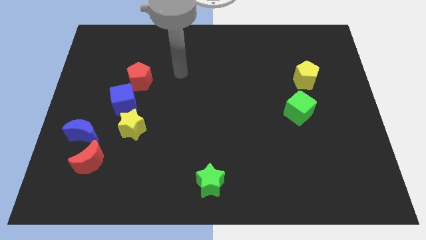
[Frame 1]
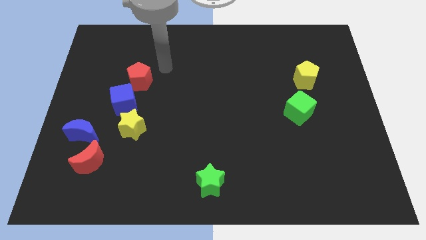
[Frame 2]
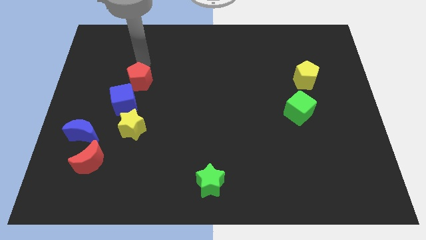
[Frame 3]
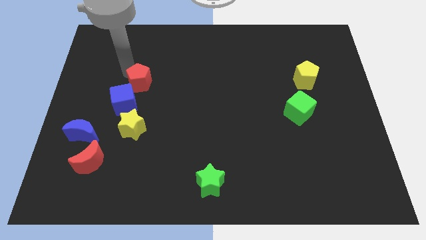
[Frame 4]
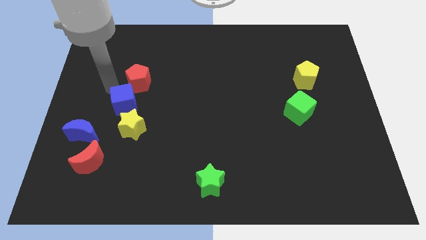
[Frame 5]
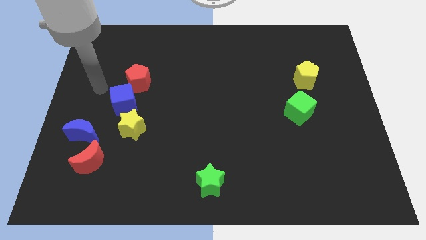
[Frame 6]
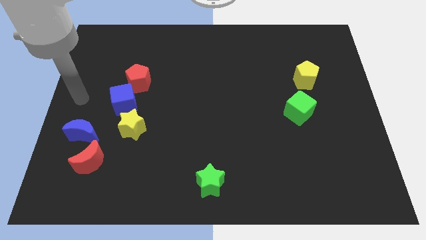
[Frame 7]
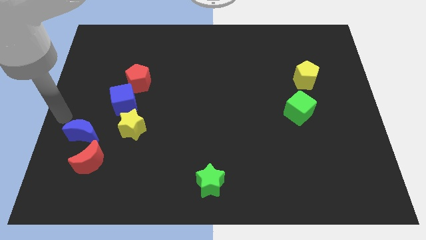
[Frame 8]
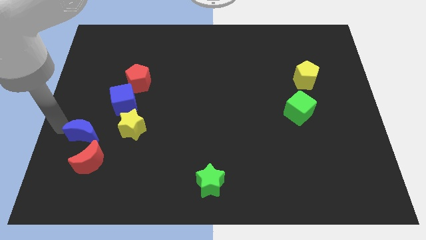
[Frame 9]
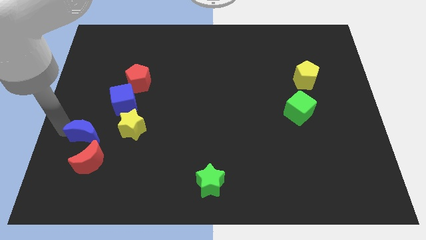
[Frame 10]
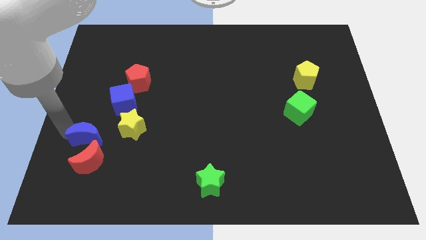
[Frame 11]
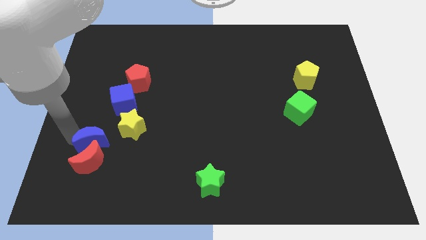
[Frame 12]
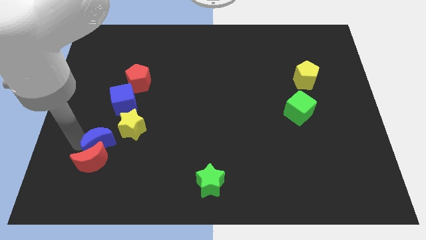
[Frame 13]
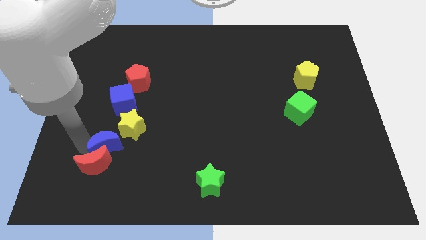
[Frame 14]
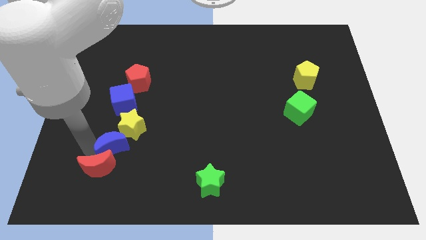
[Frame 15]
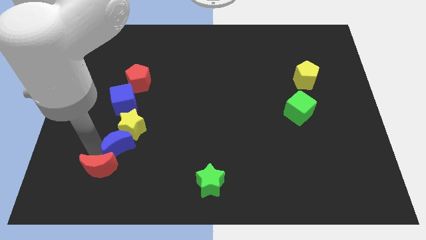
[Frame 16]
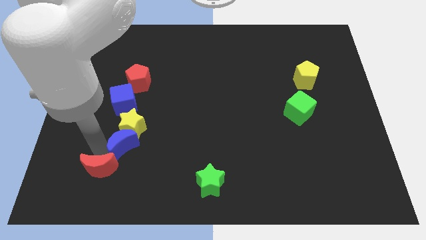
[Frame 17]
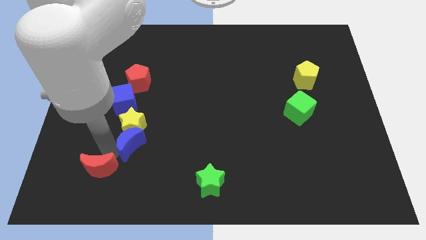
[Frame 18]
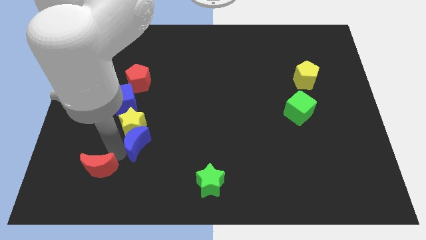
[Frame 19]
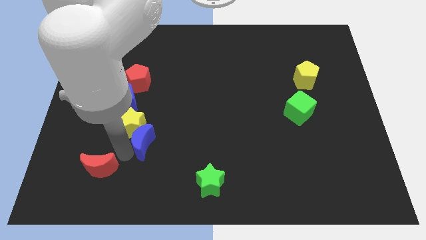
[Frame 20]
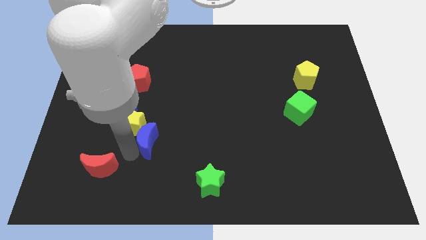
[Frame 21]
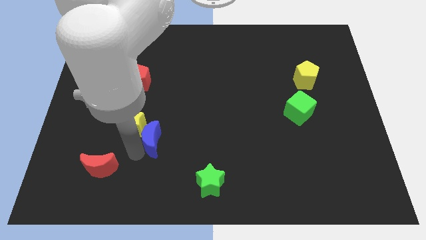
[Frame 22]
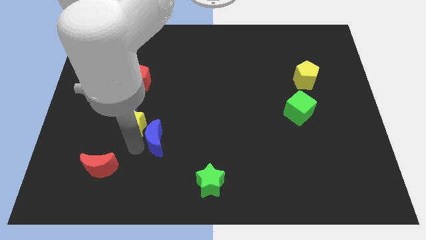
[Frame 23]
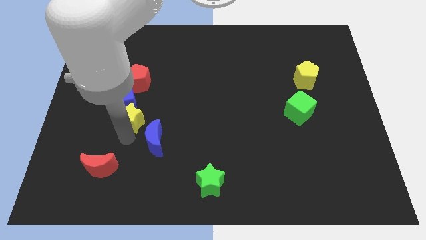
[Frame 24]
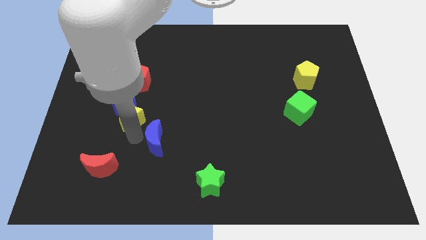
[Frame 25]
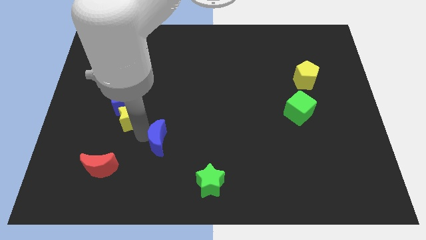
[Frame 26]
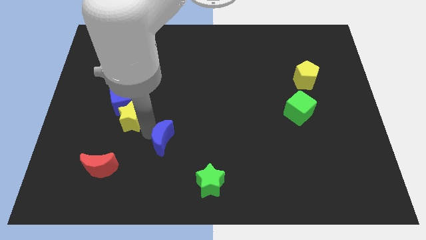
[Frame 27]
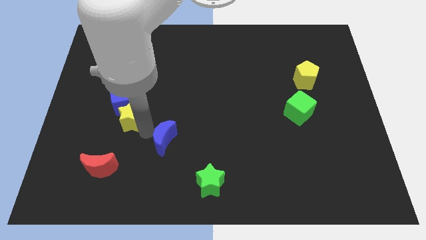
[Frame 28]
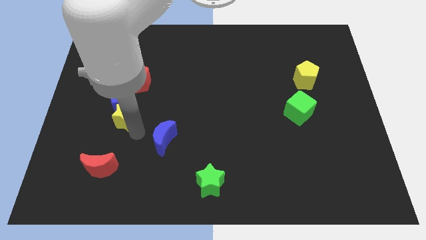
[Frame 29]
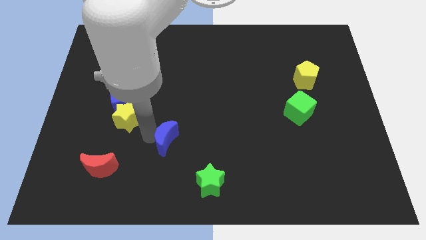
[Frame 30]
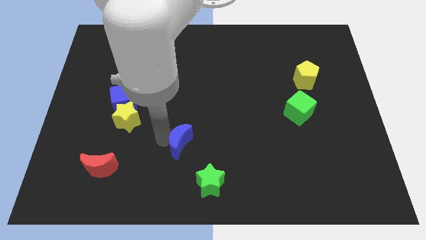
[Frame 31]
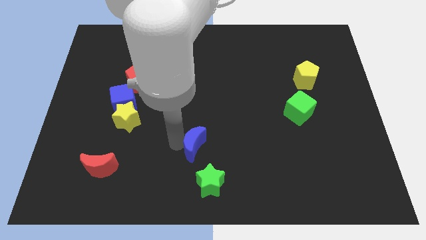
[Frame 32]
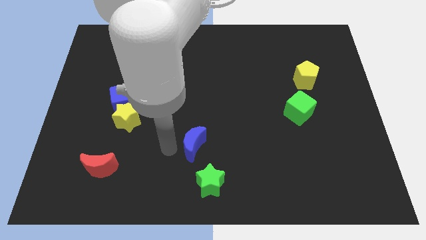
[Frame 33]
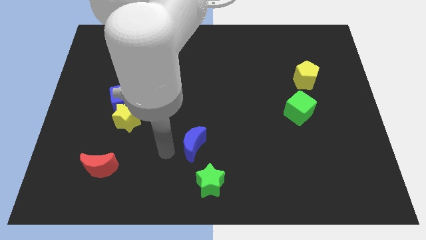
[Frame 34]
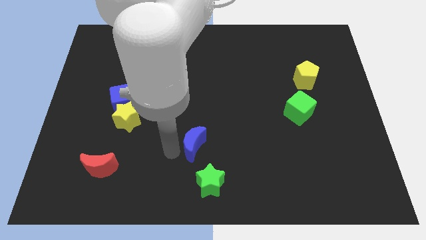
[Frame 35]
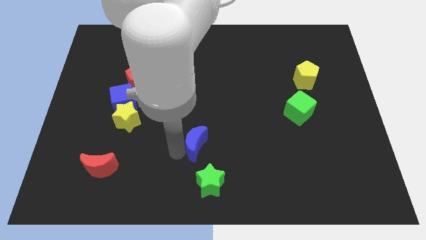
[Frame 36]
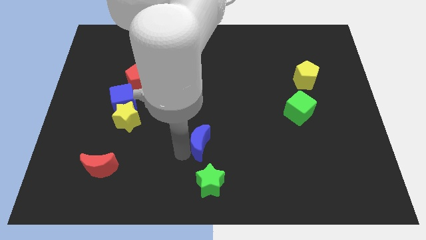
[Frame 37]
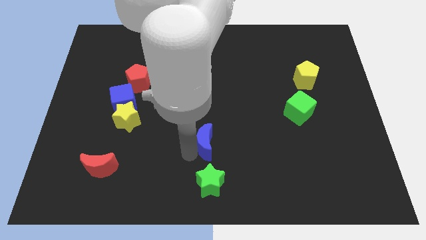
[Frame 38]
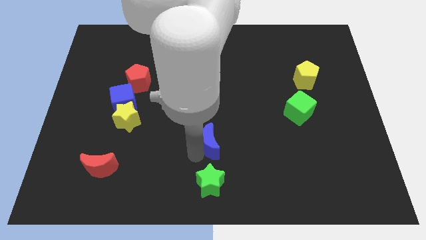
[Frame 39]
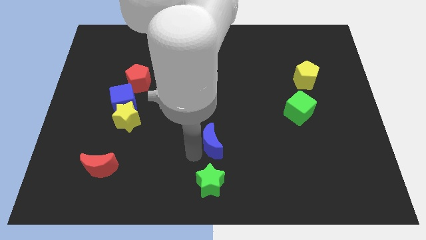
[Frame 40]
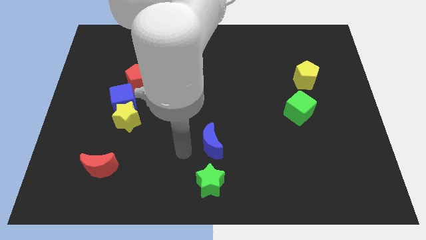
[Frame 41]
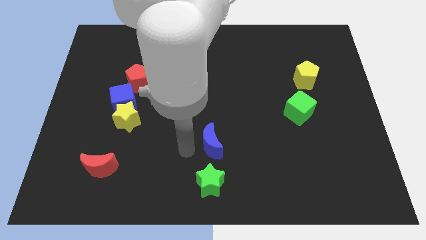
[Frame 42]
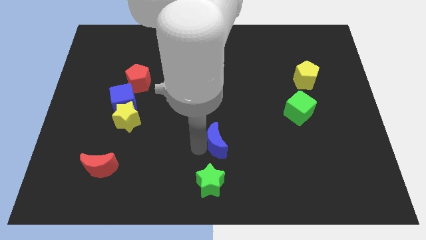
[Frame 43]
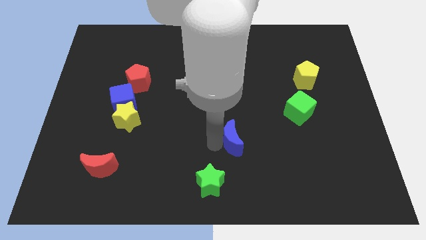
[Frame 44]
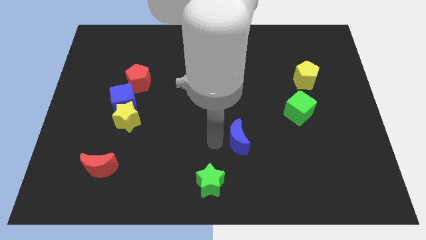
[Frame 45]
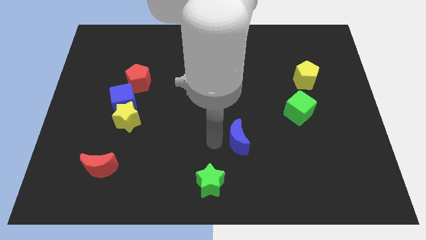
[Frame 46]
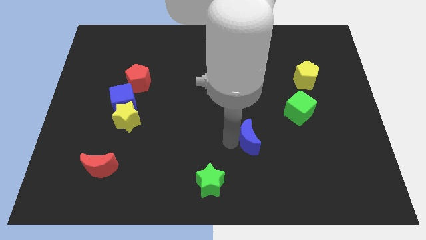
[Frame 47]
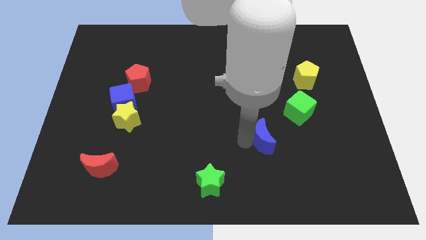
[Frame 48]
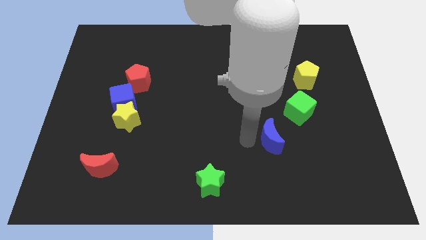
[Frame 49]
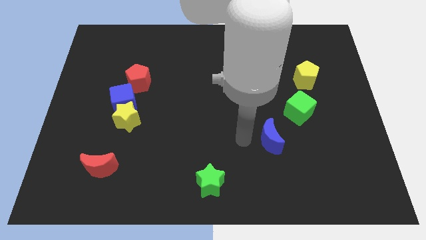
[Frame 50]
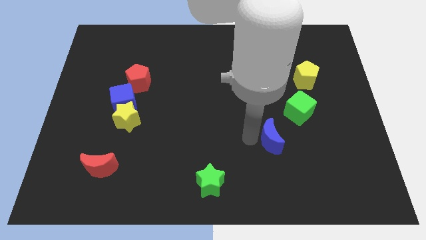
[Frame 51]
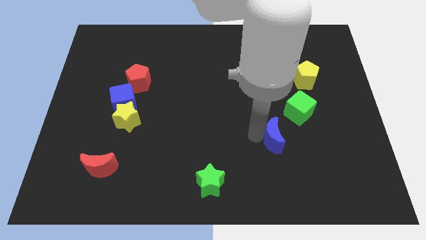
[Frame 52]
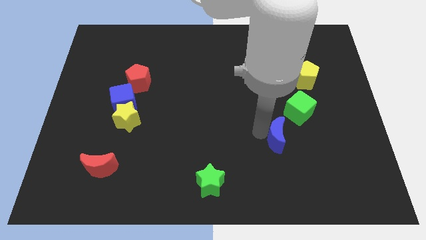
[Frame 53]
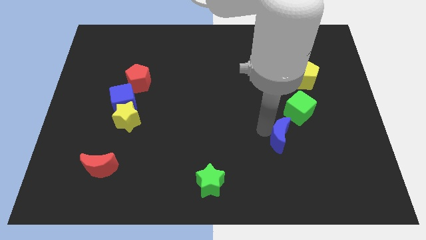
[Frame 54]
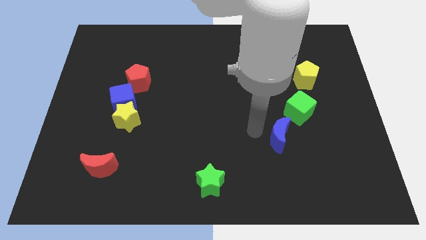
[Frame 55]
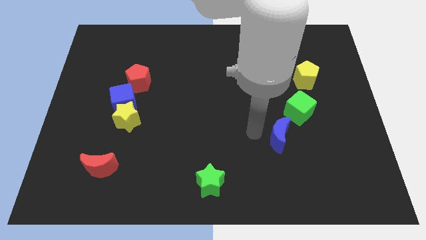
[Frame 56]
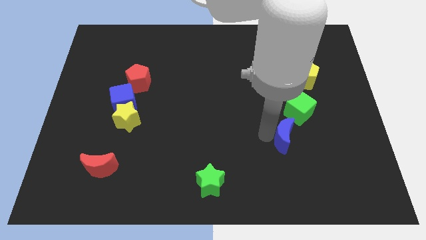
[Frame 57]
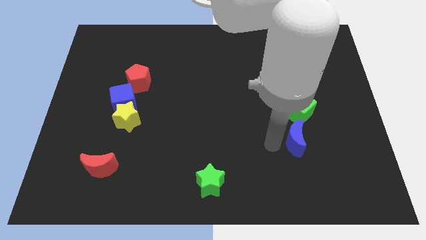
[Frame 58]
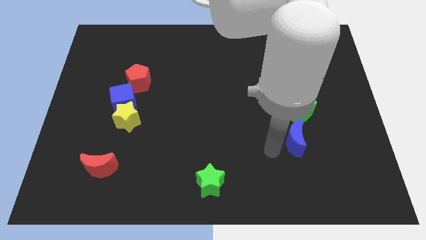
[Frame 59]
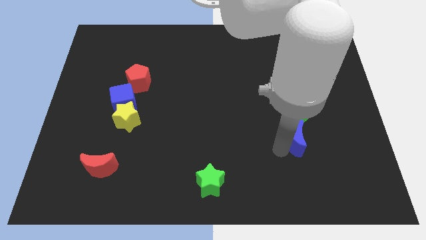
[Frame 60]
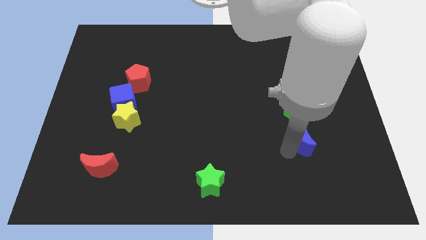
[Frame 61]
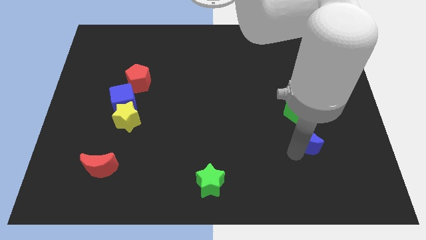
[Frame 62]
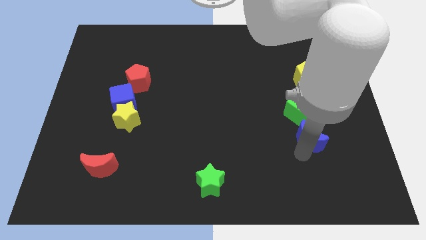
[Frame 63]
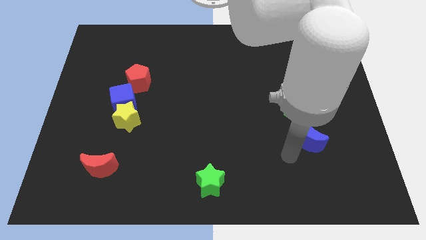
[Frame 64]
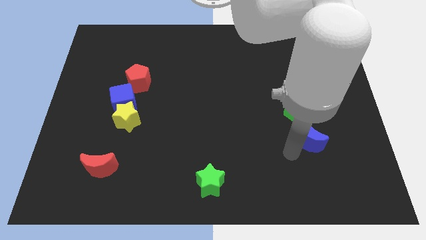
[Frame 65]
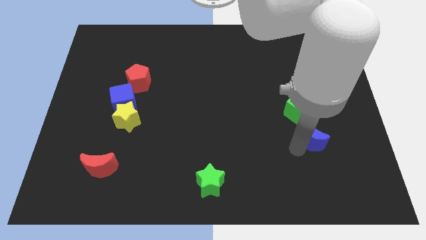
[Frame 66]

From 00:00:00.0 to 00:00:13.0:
move the blue moon to the bottom right side of the green cube

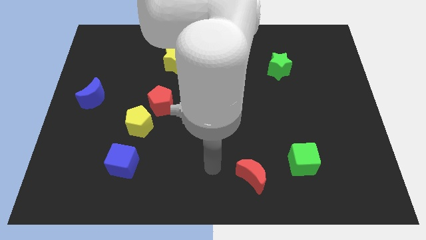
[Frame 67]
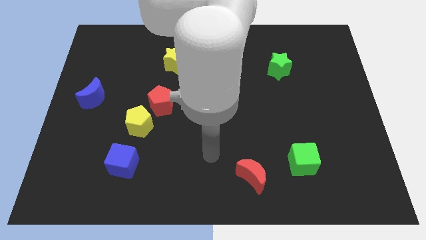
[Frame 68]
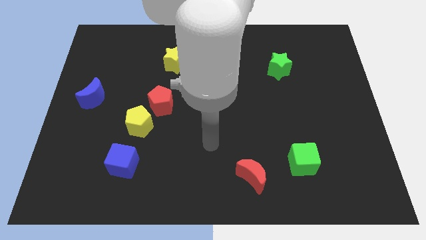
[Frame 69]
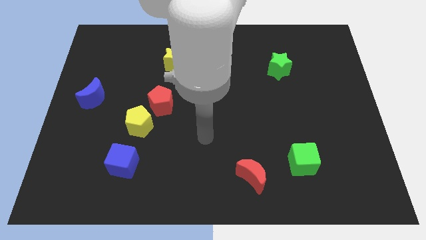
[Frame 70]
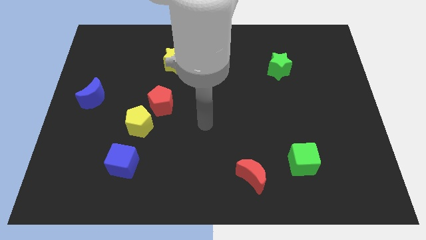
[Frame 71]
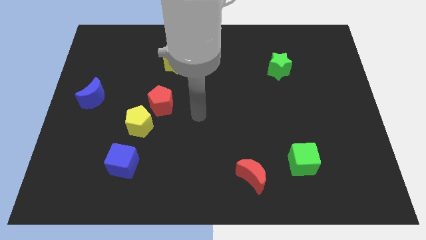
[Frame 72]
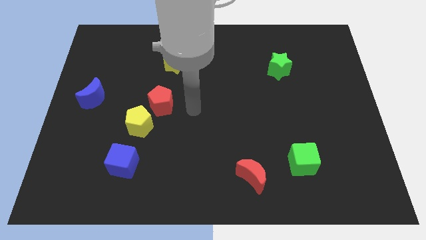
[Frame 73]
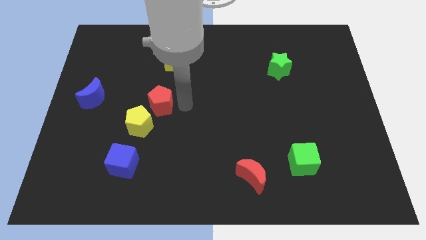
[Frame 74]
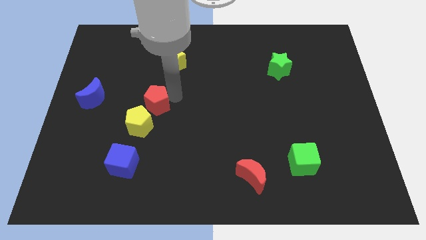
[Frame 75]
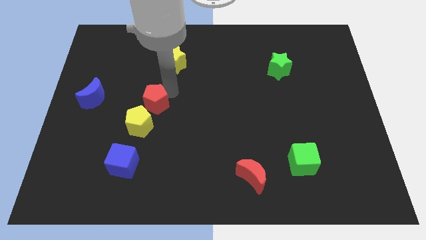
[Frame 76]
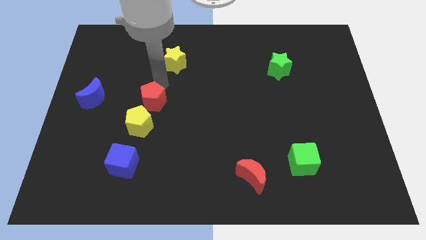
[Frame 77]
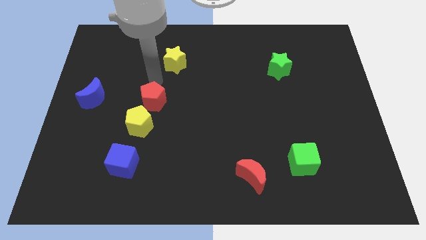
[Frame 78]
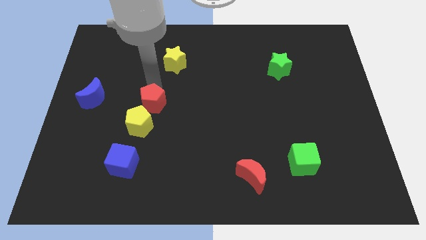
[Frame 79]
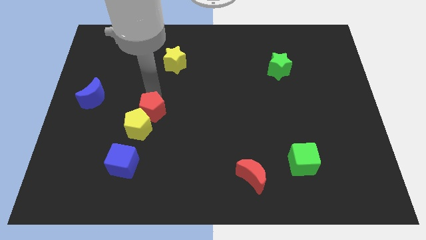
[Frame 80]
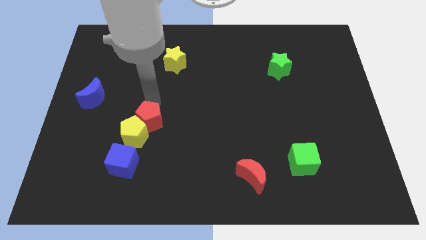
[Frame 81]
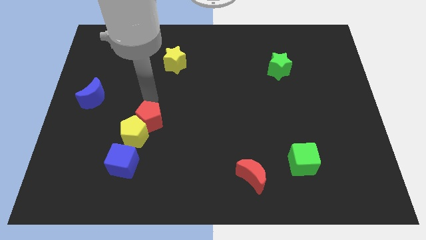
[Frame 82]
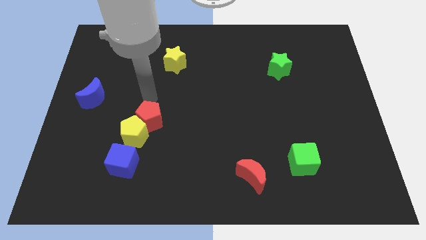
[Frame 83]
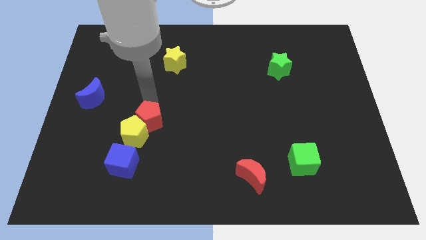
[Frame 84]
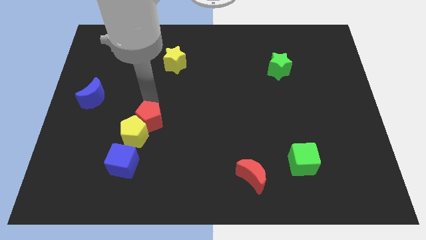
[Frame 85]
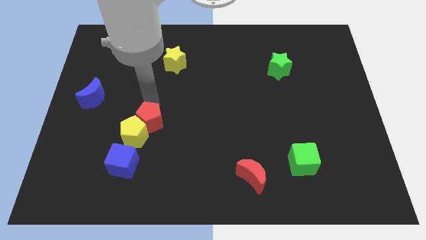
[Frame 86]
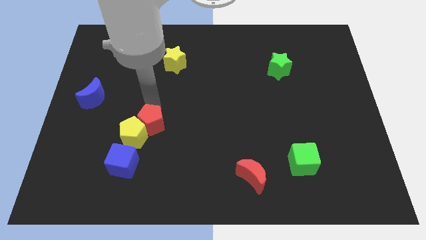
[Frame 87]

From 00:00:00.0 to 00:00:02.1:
move the red pentagon diagonally up and to the right of the blue cube
